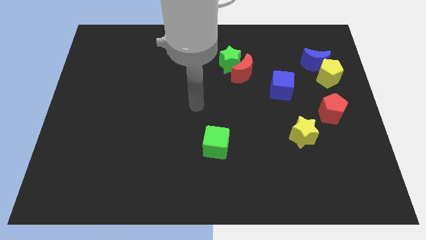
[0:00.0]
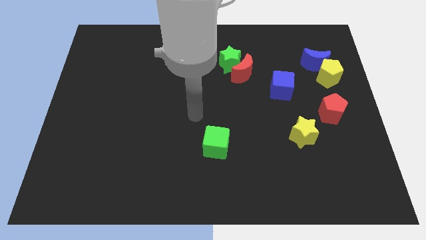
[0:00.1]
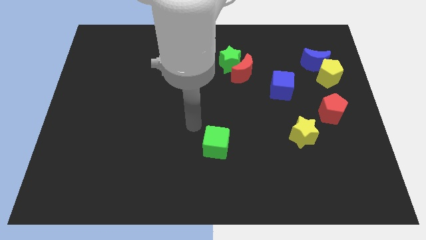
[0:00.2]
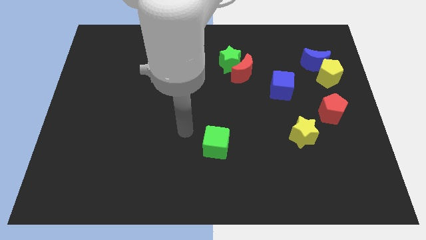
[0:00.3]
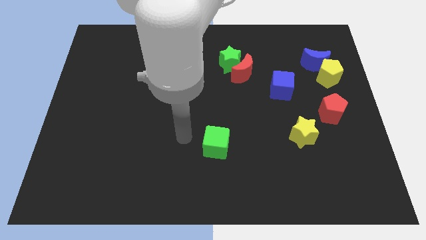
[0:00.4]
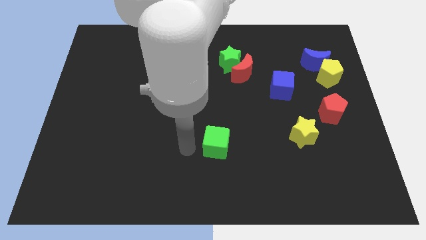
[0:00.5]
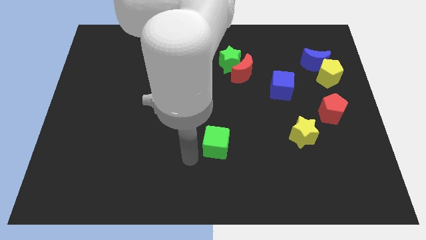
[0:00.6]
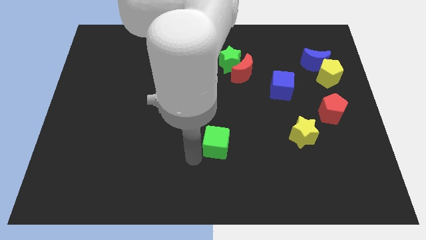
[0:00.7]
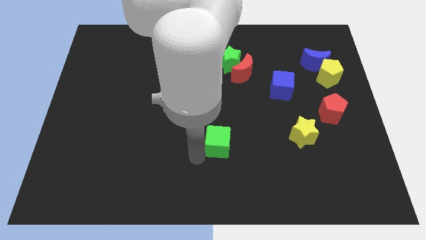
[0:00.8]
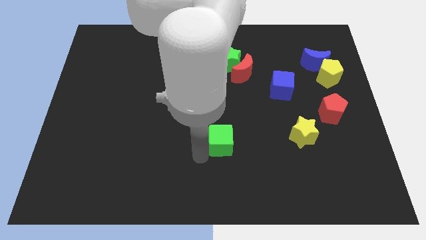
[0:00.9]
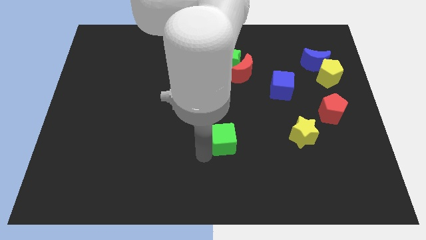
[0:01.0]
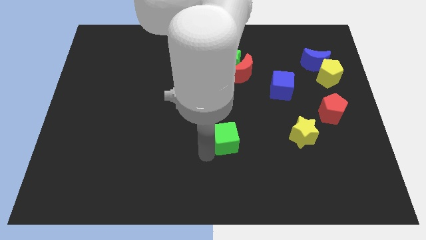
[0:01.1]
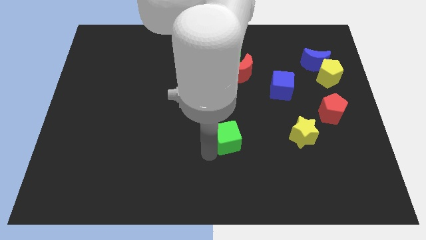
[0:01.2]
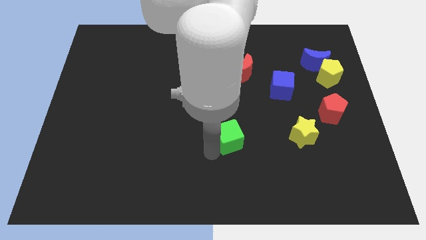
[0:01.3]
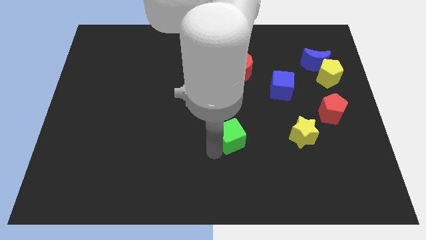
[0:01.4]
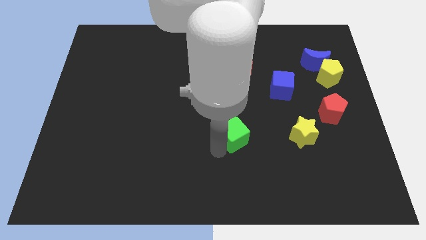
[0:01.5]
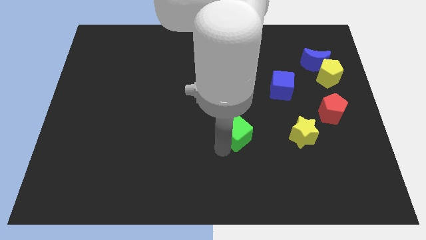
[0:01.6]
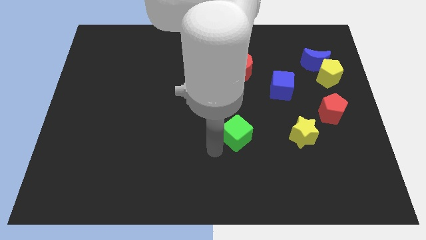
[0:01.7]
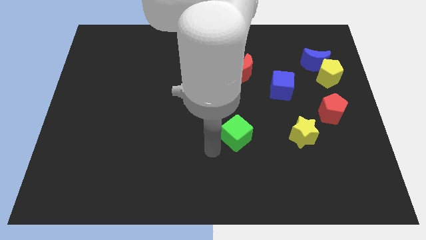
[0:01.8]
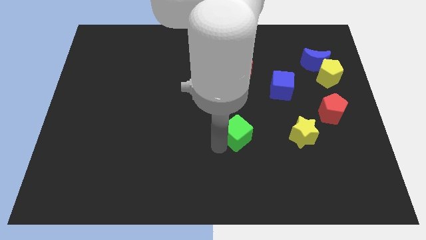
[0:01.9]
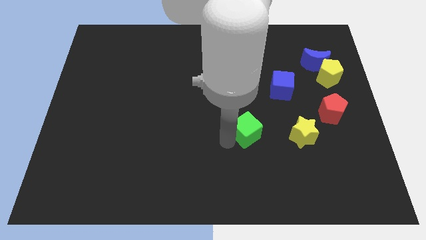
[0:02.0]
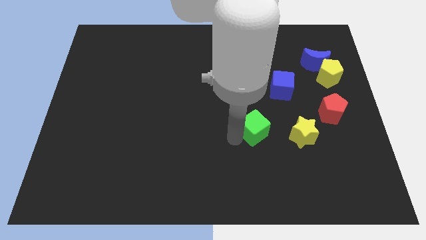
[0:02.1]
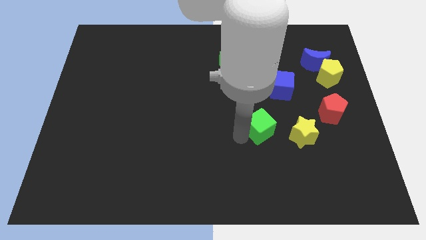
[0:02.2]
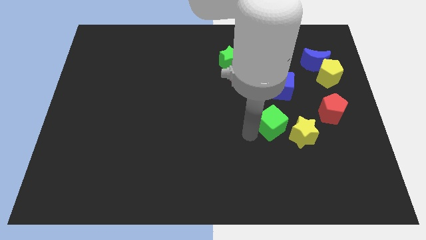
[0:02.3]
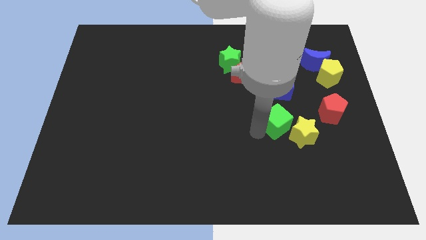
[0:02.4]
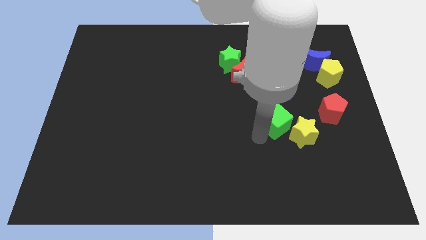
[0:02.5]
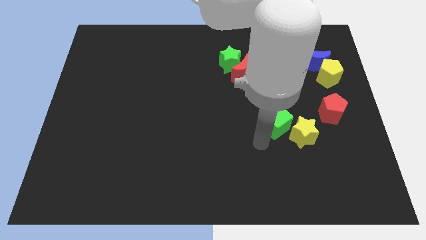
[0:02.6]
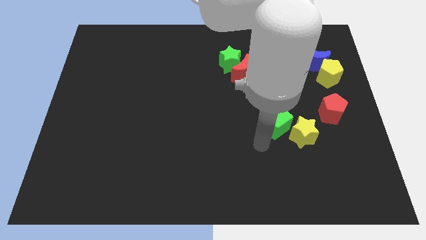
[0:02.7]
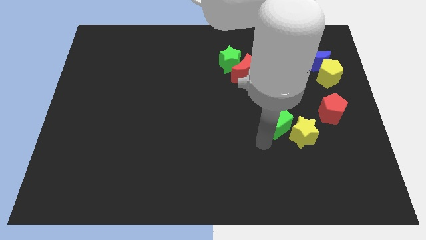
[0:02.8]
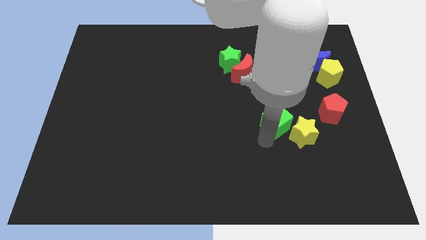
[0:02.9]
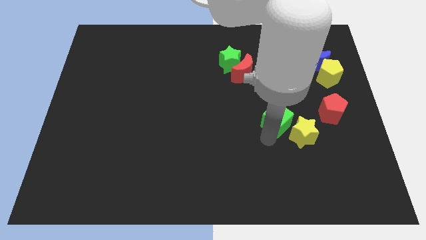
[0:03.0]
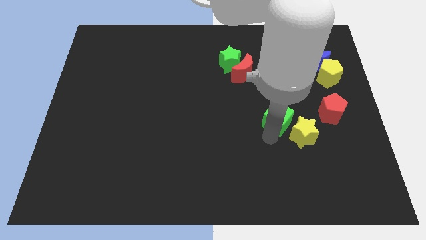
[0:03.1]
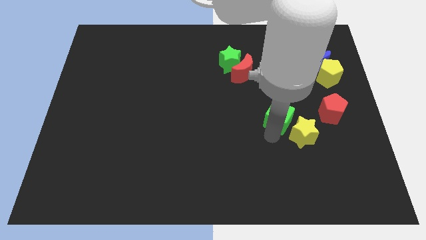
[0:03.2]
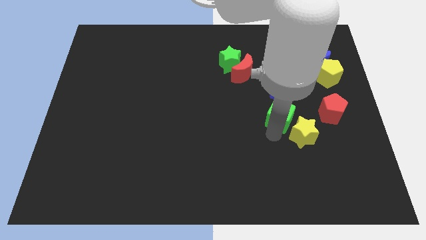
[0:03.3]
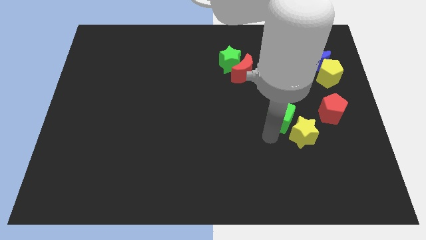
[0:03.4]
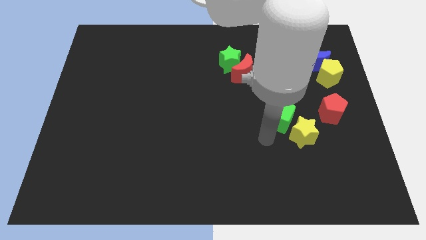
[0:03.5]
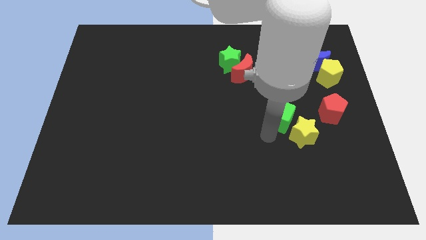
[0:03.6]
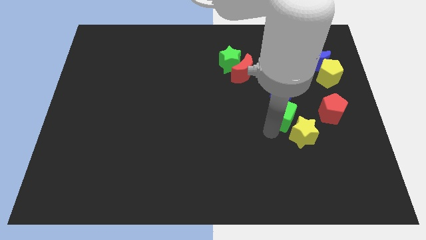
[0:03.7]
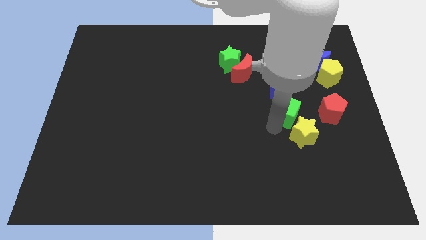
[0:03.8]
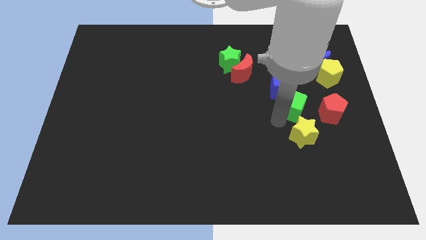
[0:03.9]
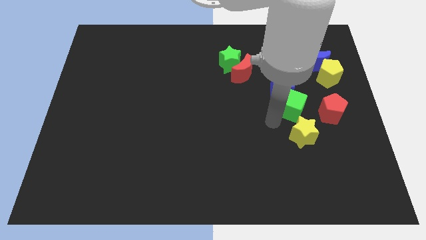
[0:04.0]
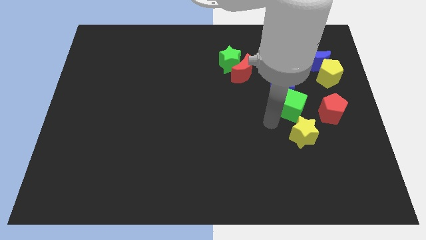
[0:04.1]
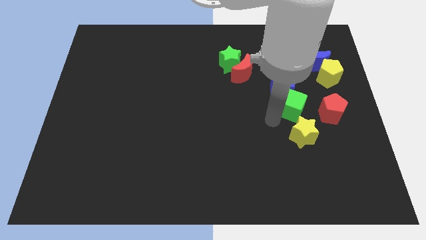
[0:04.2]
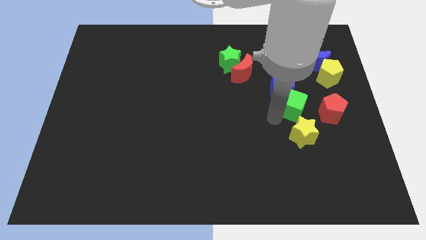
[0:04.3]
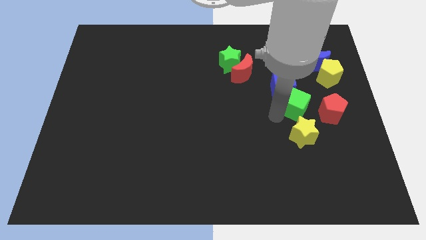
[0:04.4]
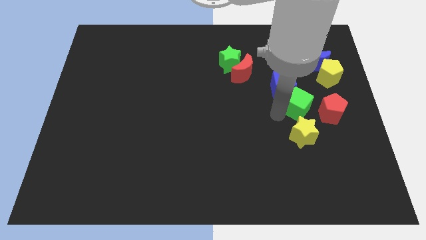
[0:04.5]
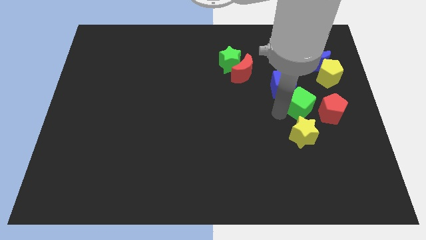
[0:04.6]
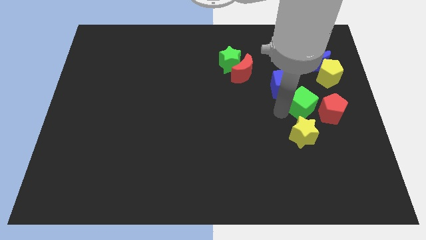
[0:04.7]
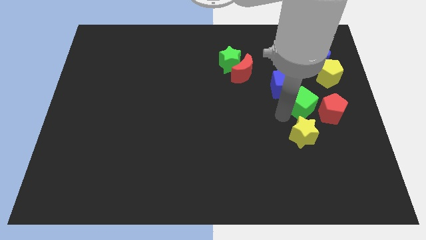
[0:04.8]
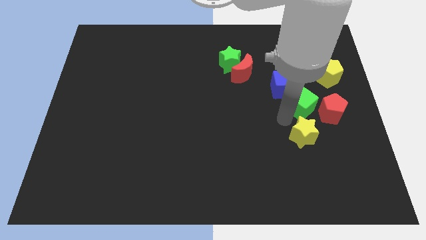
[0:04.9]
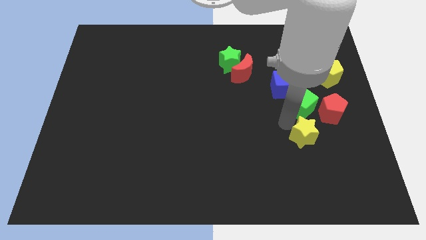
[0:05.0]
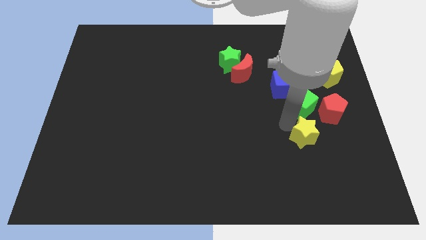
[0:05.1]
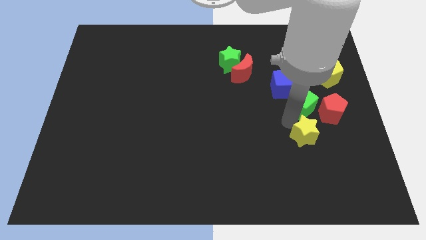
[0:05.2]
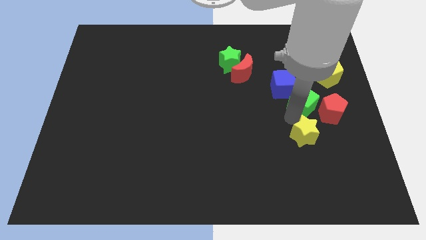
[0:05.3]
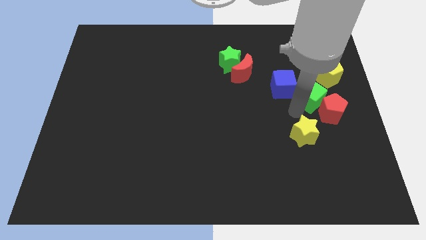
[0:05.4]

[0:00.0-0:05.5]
slide the green cube to the right of the blue cube

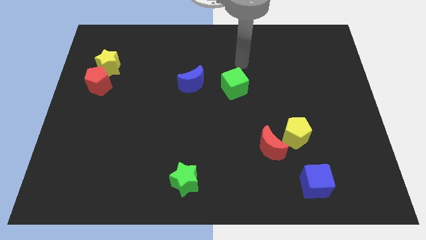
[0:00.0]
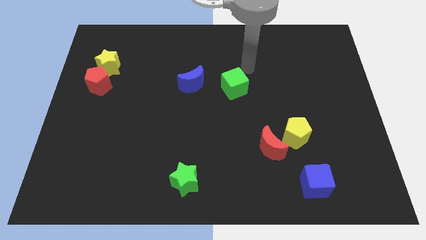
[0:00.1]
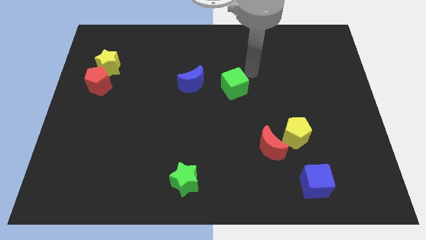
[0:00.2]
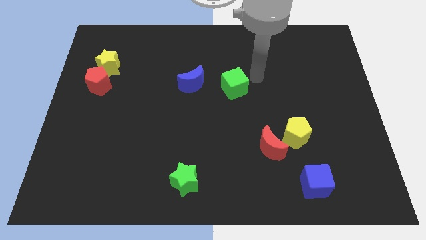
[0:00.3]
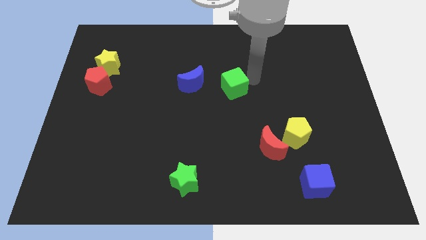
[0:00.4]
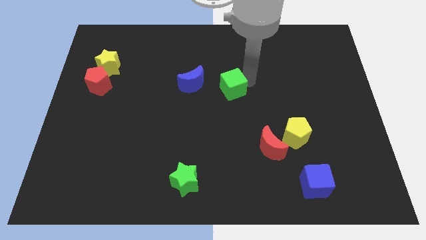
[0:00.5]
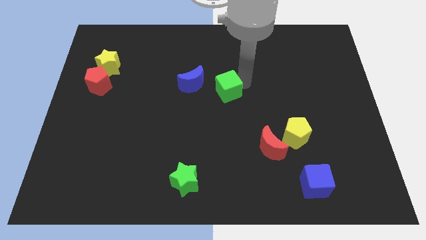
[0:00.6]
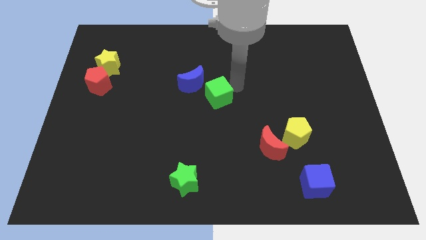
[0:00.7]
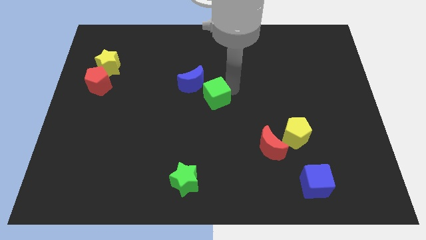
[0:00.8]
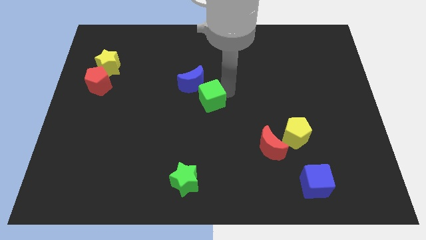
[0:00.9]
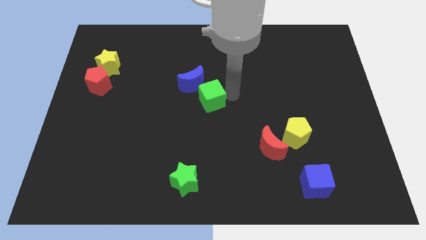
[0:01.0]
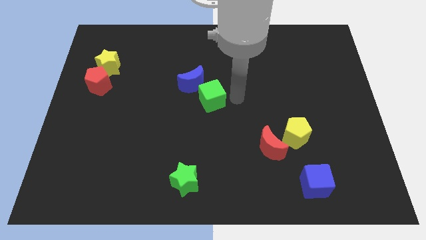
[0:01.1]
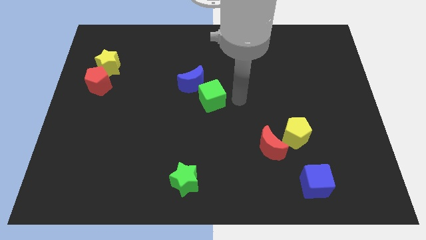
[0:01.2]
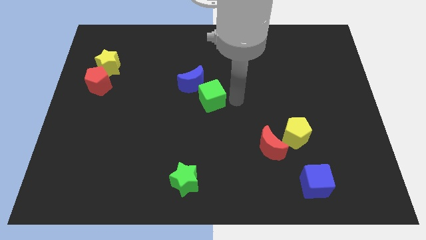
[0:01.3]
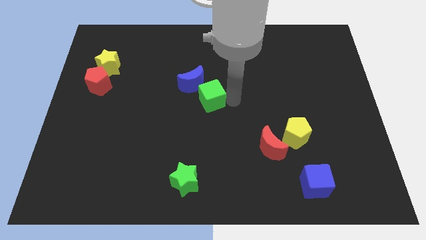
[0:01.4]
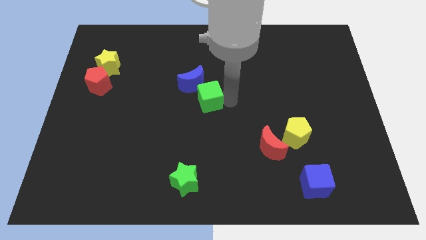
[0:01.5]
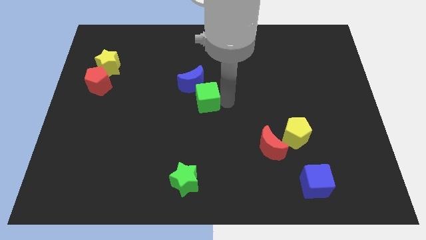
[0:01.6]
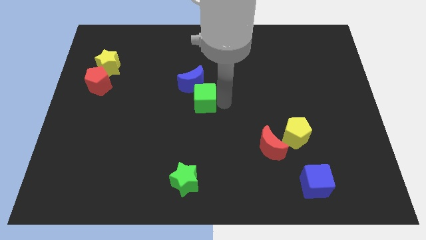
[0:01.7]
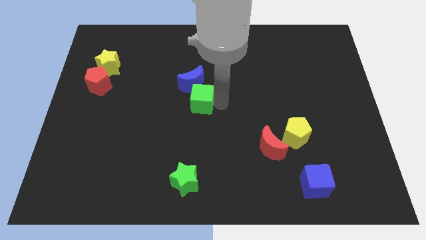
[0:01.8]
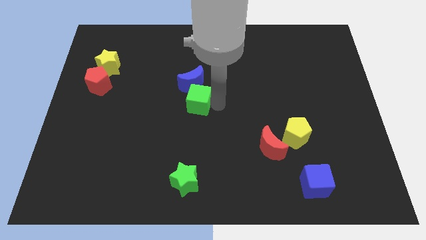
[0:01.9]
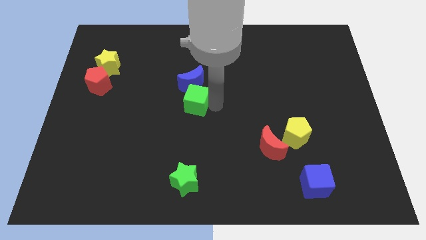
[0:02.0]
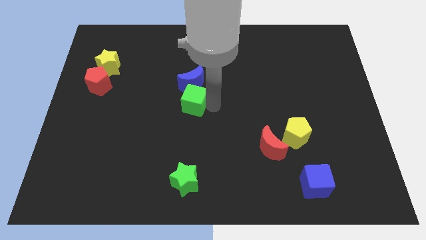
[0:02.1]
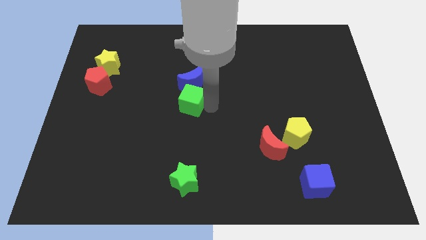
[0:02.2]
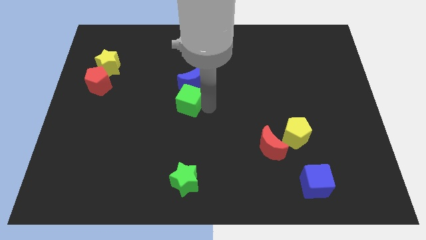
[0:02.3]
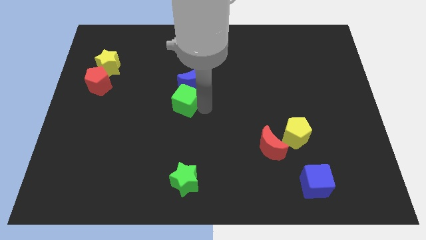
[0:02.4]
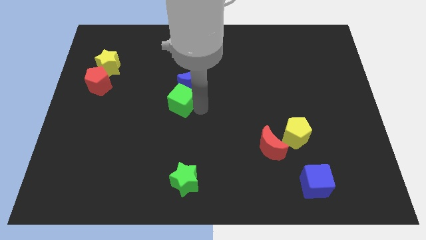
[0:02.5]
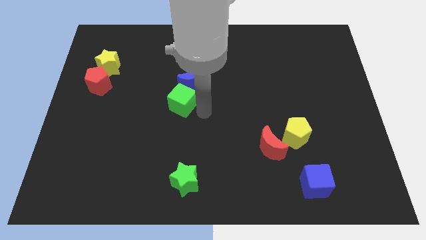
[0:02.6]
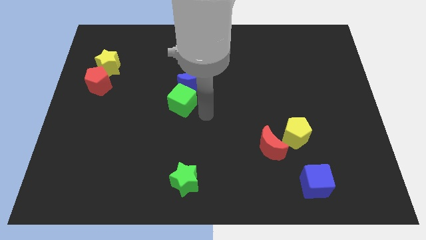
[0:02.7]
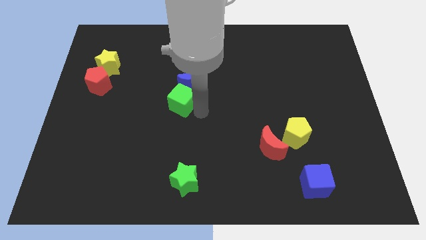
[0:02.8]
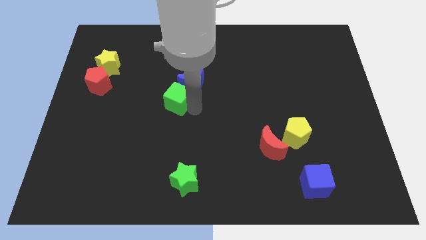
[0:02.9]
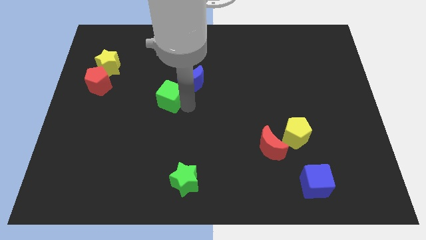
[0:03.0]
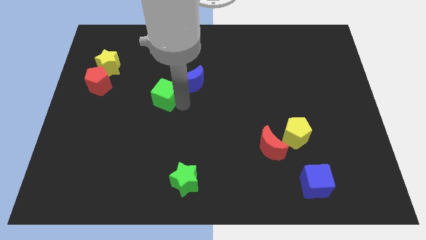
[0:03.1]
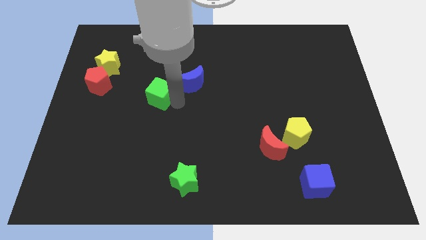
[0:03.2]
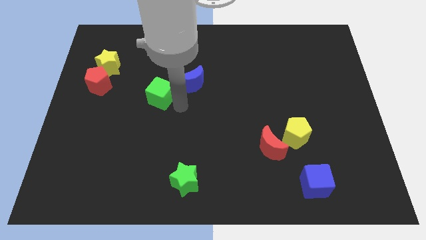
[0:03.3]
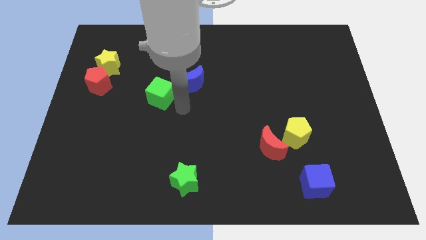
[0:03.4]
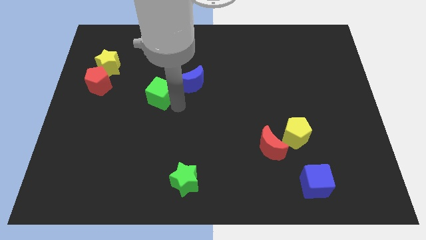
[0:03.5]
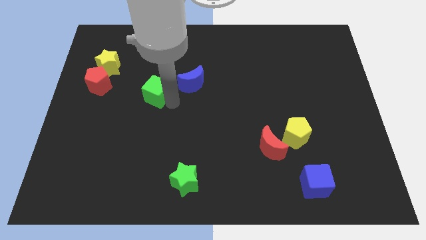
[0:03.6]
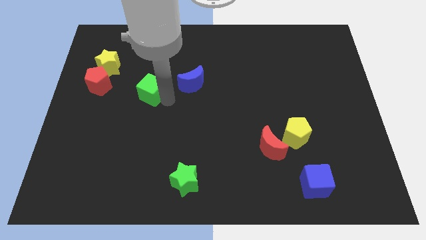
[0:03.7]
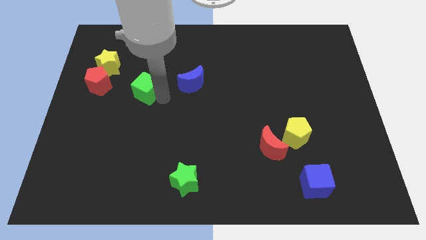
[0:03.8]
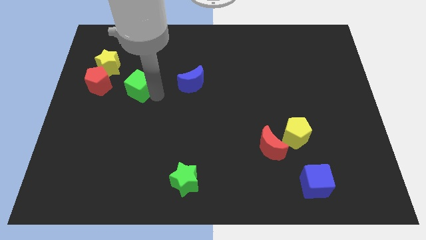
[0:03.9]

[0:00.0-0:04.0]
put the green cube diagonally down and to the right of the yellow star
